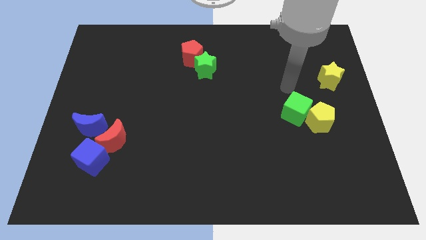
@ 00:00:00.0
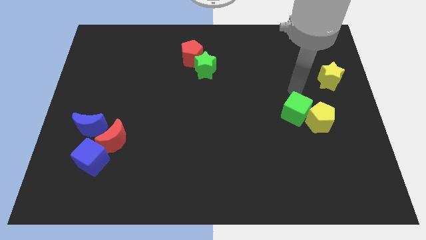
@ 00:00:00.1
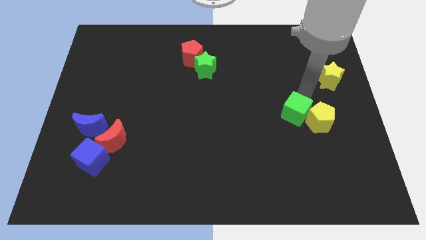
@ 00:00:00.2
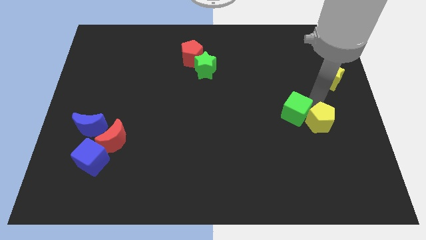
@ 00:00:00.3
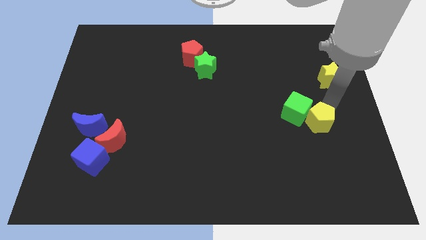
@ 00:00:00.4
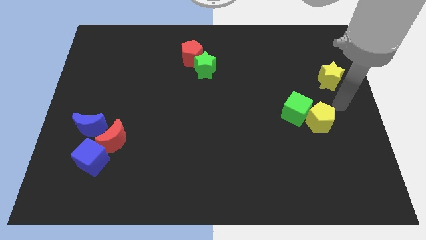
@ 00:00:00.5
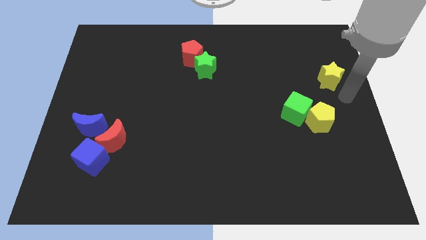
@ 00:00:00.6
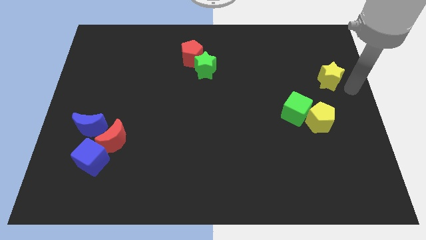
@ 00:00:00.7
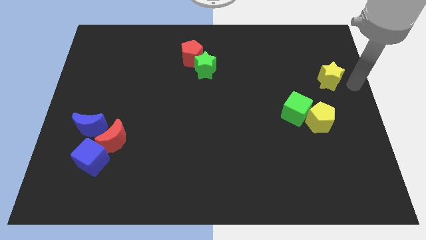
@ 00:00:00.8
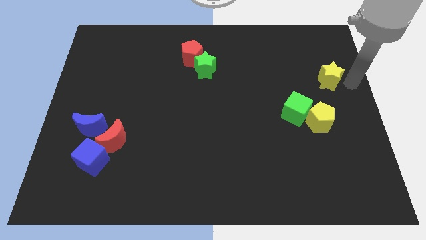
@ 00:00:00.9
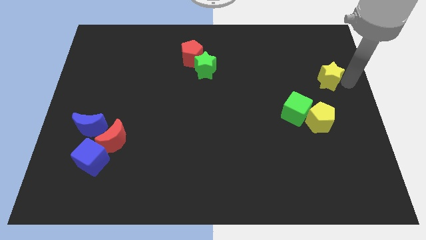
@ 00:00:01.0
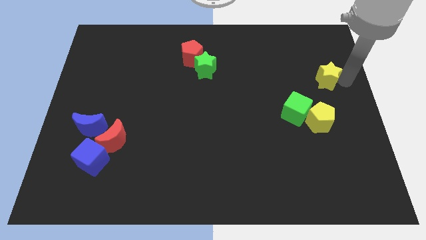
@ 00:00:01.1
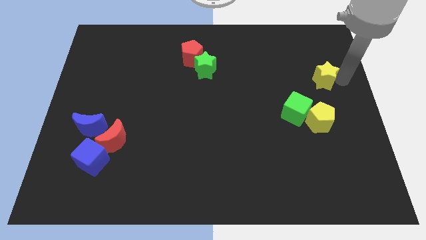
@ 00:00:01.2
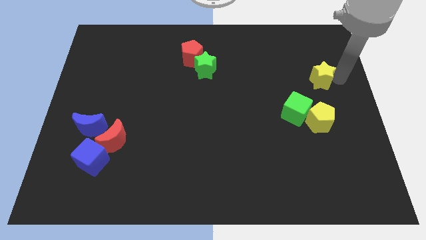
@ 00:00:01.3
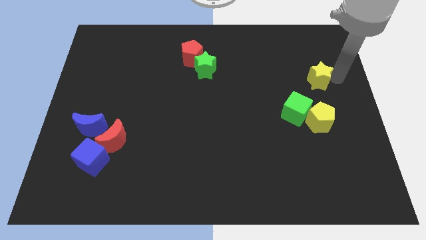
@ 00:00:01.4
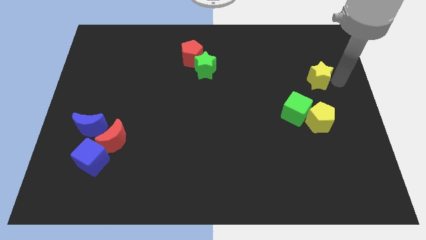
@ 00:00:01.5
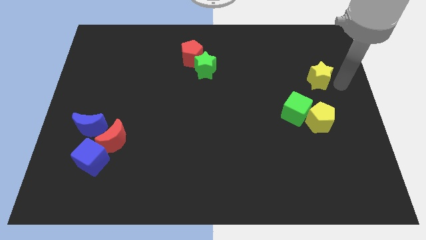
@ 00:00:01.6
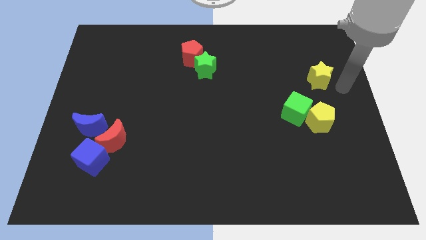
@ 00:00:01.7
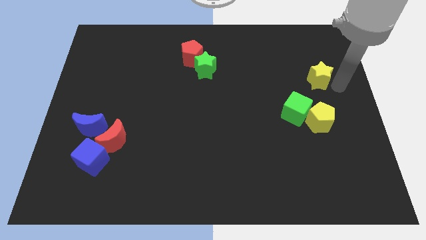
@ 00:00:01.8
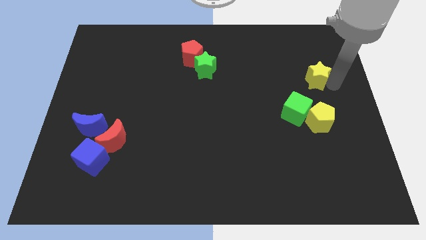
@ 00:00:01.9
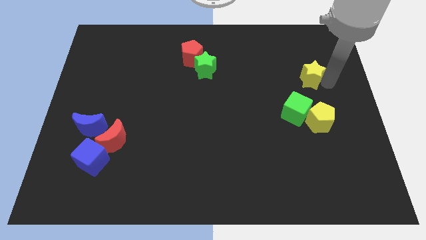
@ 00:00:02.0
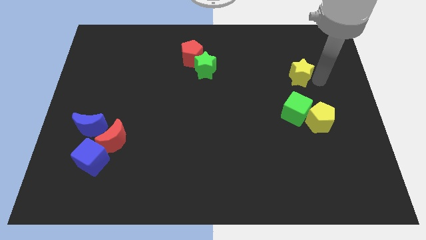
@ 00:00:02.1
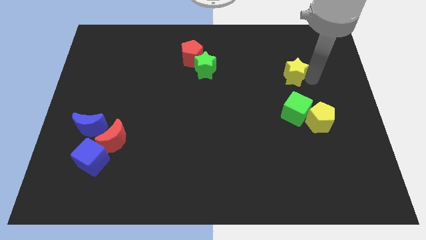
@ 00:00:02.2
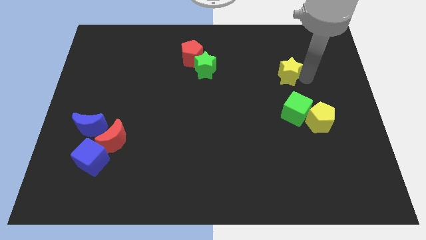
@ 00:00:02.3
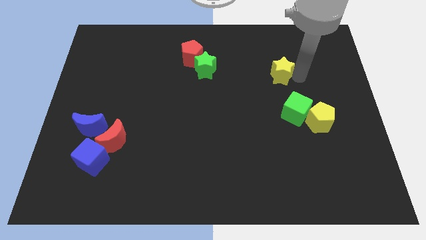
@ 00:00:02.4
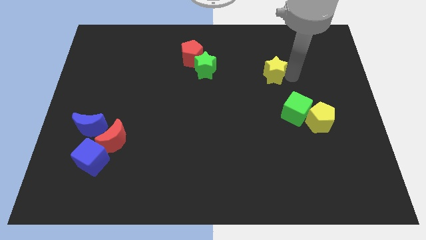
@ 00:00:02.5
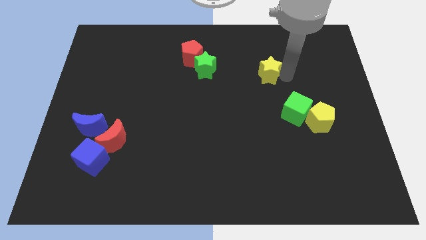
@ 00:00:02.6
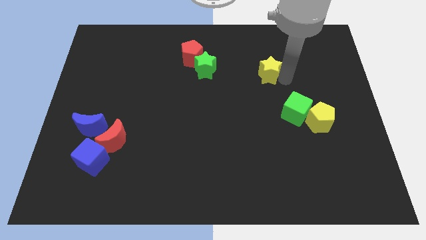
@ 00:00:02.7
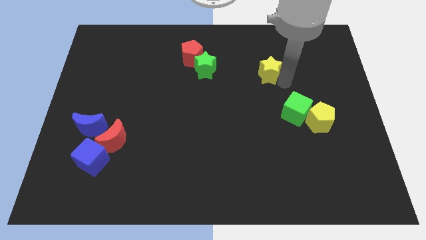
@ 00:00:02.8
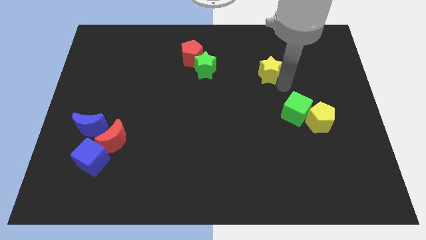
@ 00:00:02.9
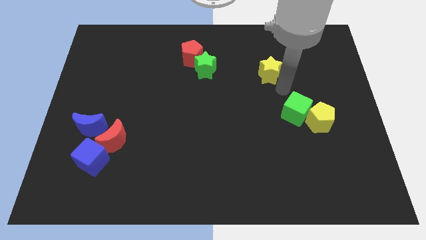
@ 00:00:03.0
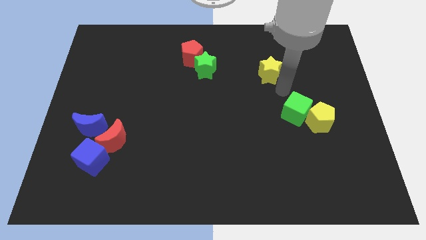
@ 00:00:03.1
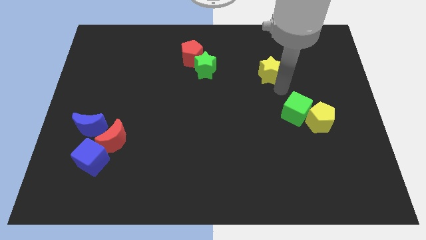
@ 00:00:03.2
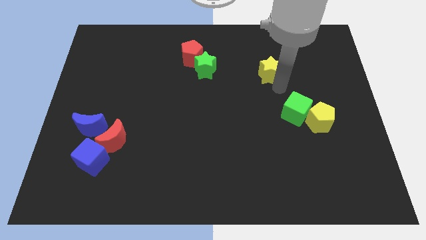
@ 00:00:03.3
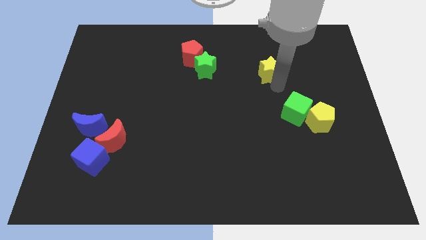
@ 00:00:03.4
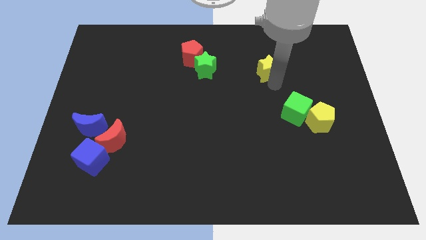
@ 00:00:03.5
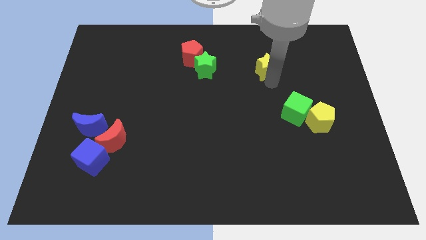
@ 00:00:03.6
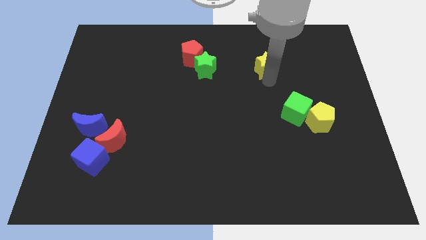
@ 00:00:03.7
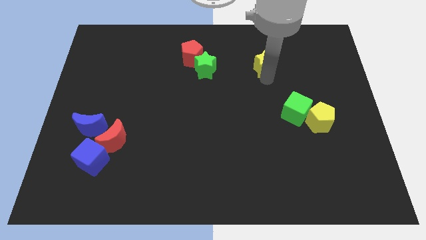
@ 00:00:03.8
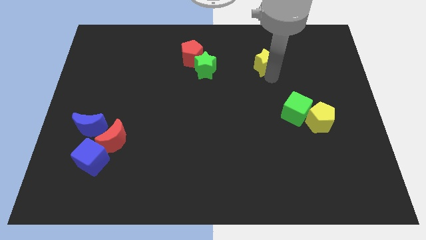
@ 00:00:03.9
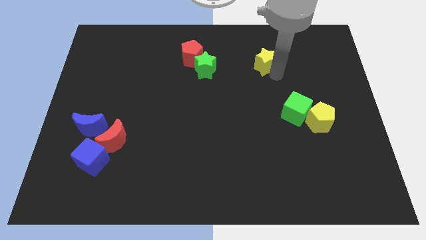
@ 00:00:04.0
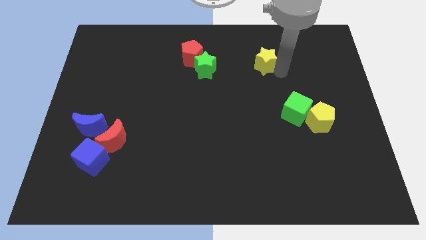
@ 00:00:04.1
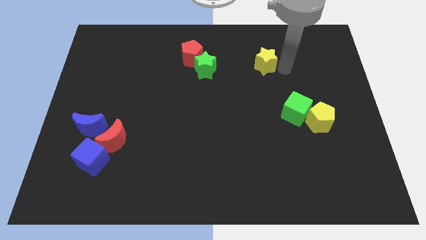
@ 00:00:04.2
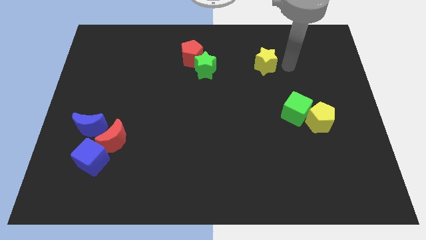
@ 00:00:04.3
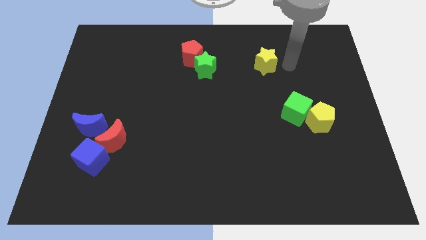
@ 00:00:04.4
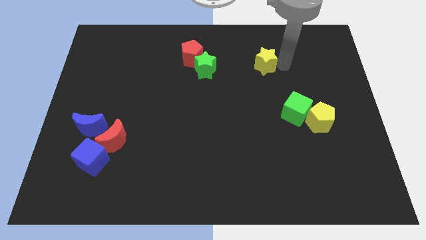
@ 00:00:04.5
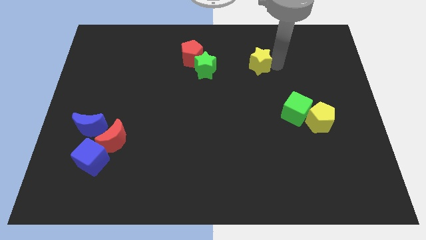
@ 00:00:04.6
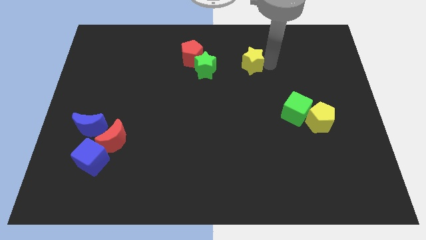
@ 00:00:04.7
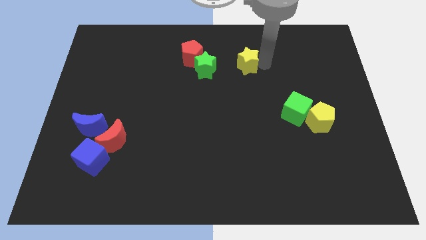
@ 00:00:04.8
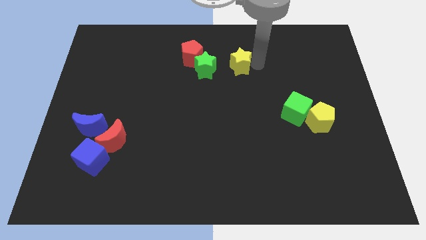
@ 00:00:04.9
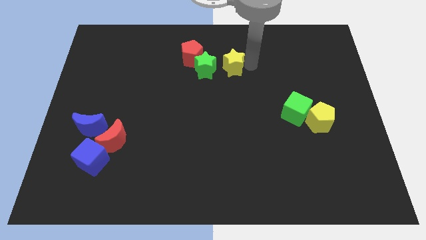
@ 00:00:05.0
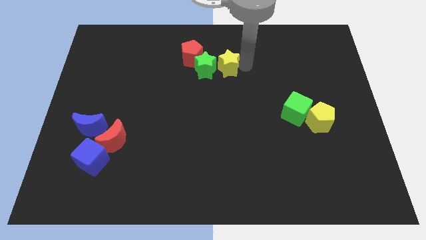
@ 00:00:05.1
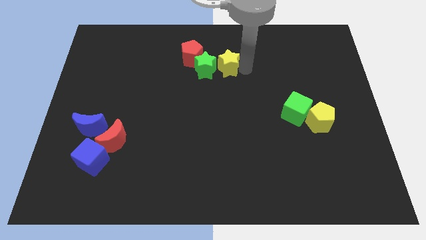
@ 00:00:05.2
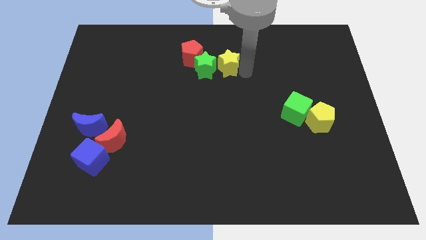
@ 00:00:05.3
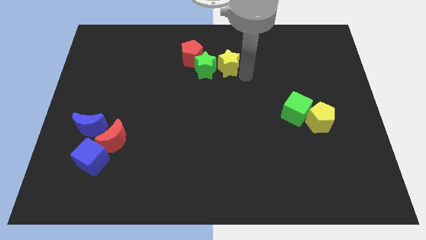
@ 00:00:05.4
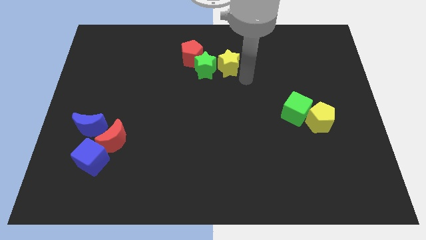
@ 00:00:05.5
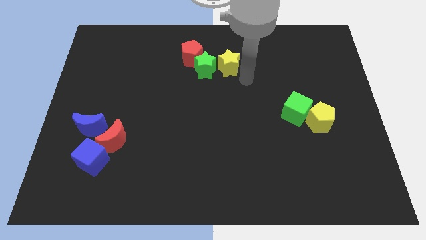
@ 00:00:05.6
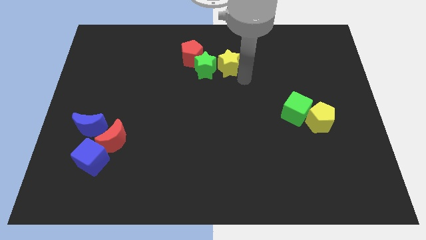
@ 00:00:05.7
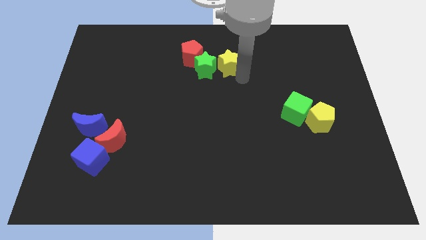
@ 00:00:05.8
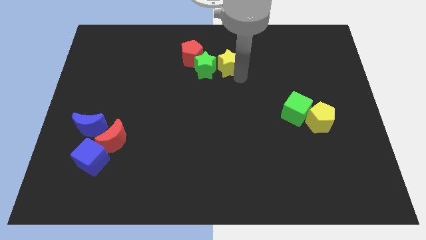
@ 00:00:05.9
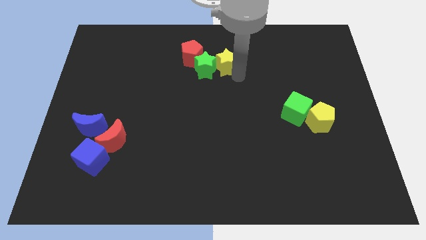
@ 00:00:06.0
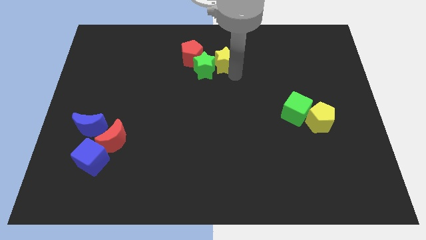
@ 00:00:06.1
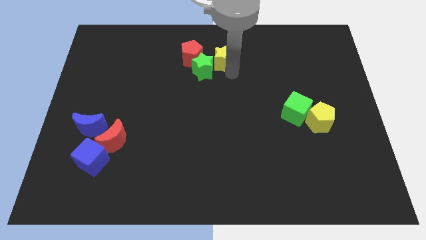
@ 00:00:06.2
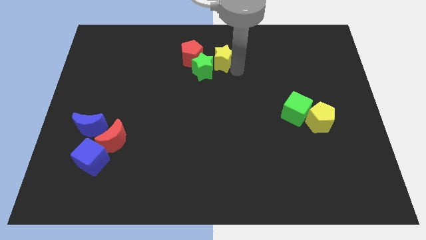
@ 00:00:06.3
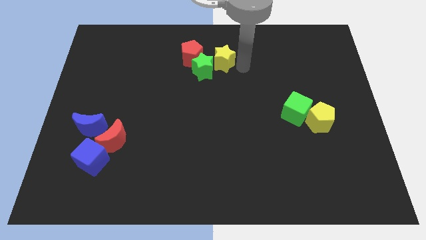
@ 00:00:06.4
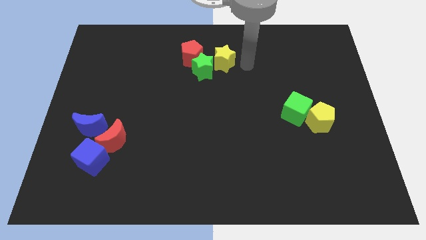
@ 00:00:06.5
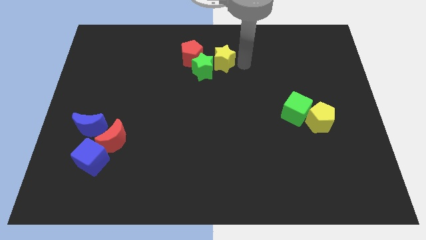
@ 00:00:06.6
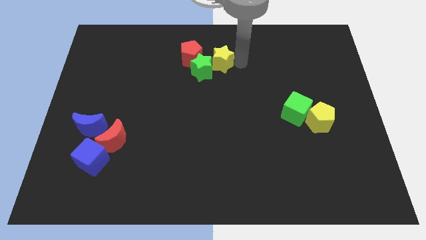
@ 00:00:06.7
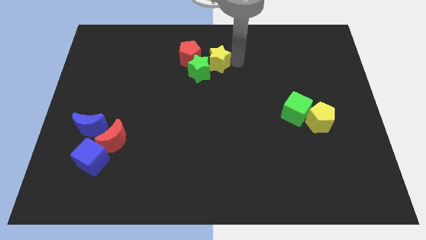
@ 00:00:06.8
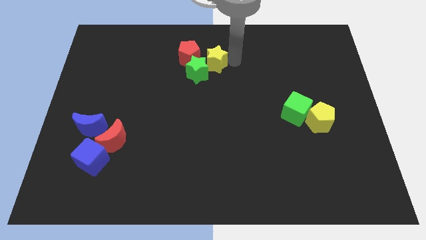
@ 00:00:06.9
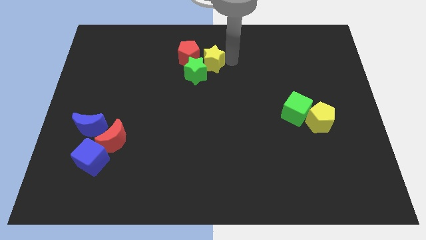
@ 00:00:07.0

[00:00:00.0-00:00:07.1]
move the yellow star close to the red pentagon

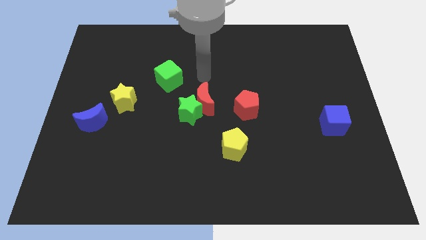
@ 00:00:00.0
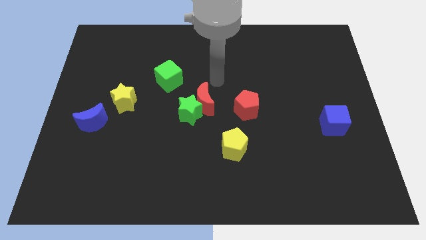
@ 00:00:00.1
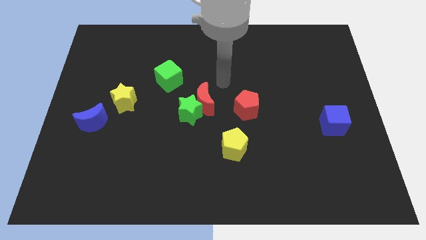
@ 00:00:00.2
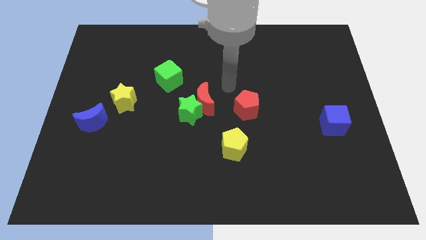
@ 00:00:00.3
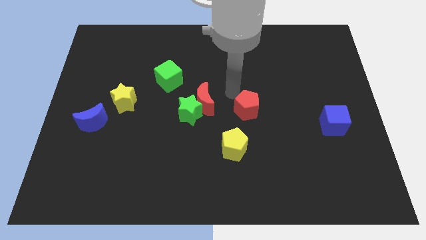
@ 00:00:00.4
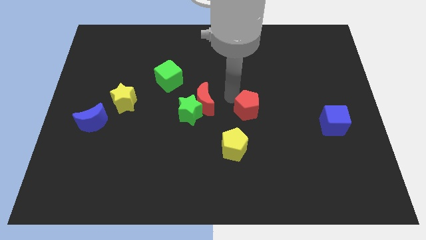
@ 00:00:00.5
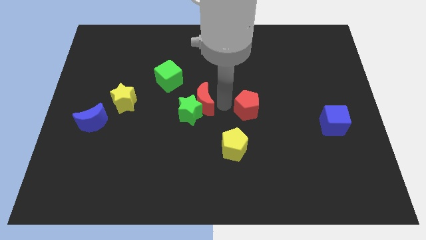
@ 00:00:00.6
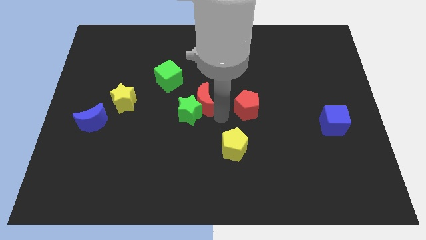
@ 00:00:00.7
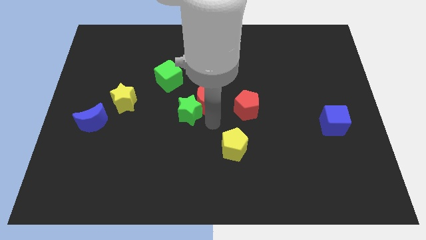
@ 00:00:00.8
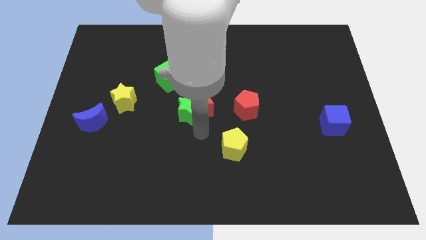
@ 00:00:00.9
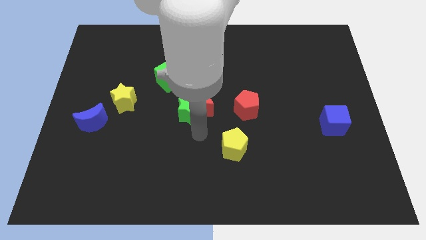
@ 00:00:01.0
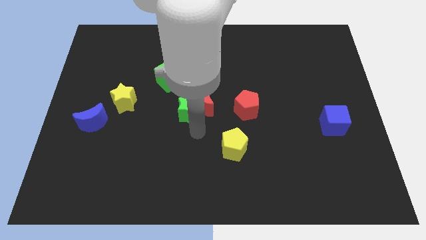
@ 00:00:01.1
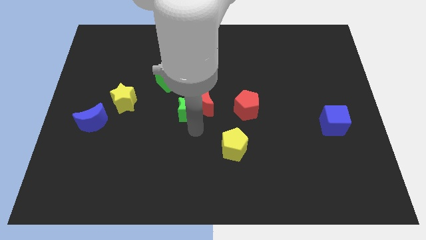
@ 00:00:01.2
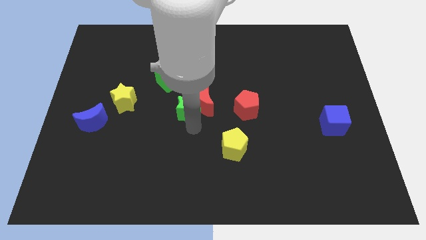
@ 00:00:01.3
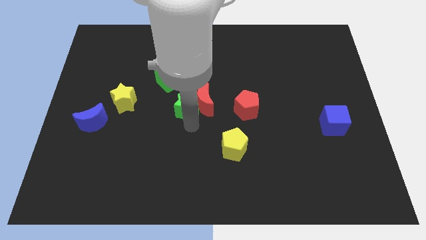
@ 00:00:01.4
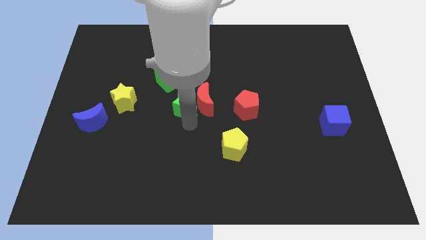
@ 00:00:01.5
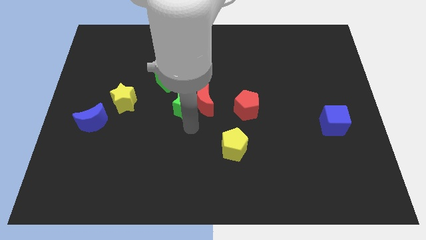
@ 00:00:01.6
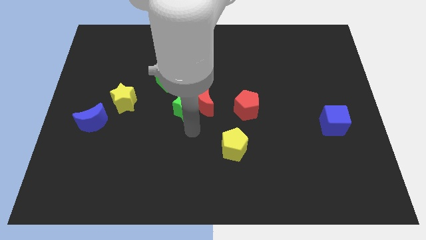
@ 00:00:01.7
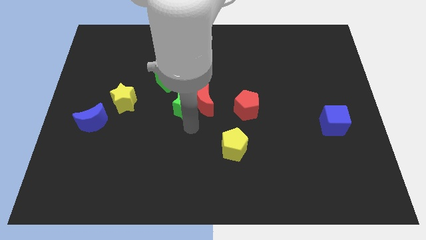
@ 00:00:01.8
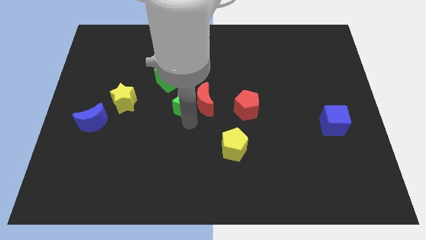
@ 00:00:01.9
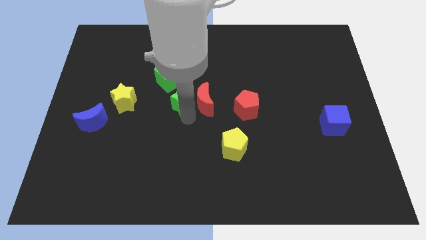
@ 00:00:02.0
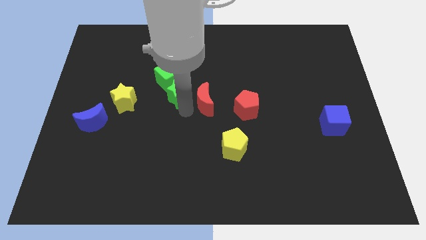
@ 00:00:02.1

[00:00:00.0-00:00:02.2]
move the green star to the green cube
